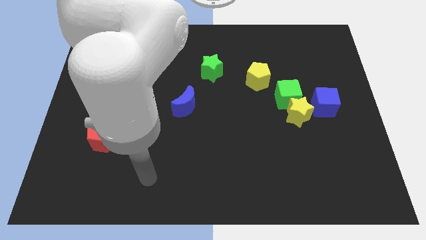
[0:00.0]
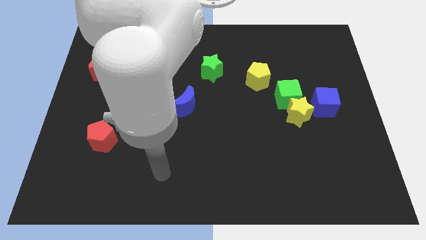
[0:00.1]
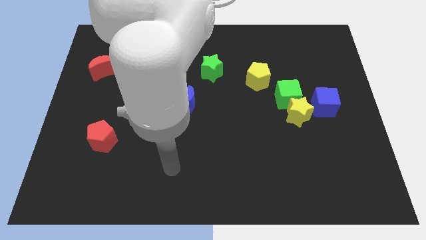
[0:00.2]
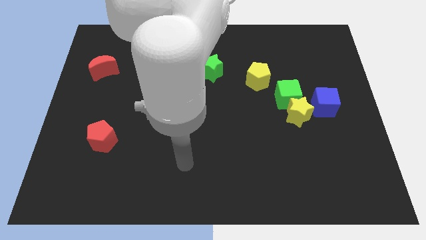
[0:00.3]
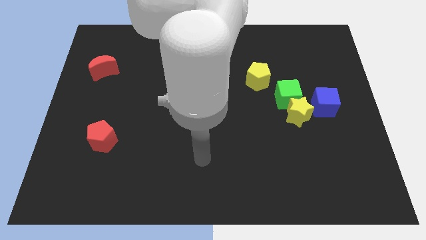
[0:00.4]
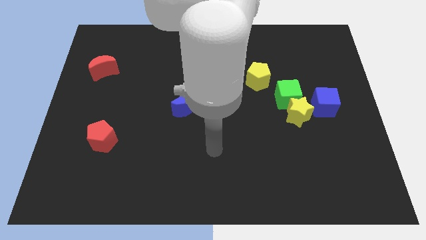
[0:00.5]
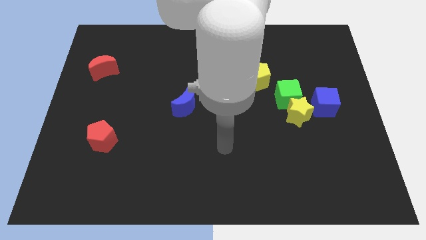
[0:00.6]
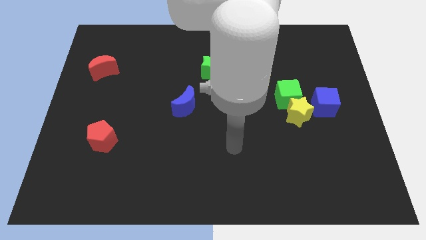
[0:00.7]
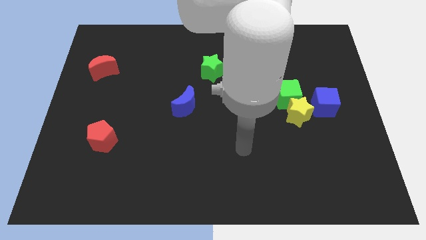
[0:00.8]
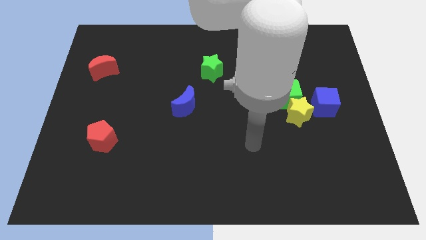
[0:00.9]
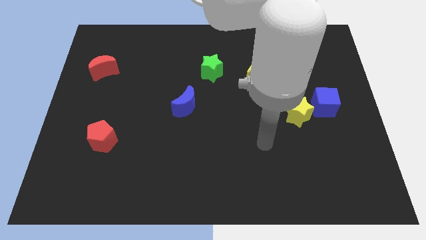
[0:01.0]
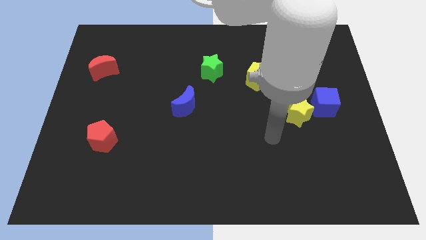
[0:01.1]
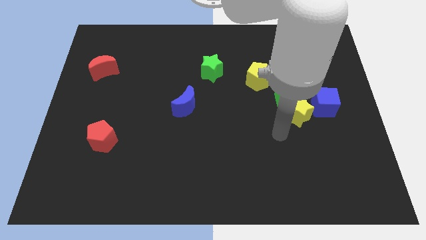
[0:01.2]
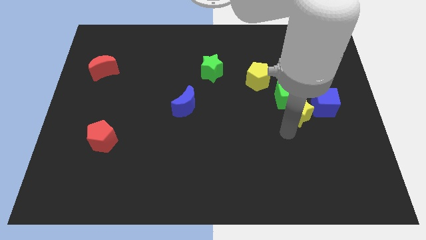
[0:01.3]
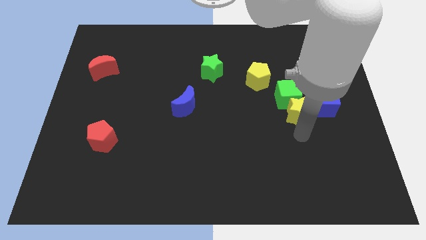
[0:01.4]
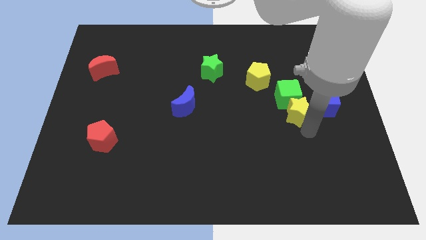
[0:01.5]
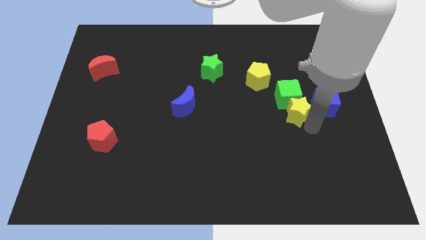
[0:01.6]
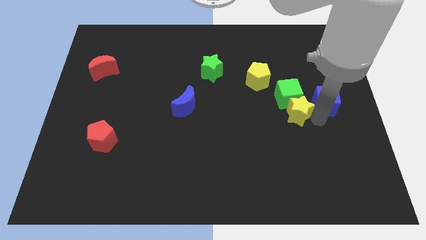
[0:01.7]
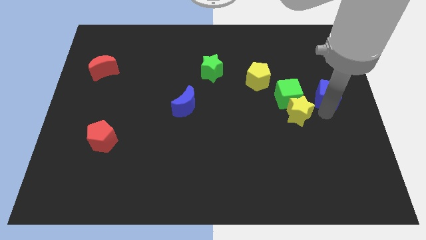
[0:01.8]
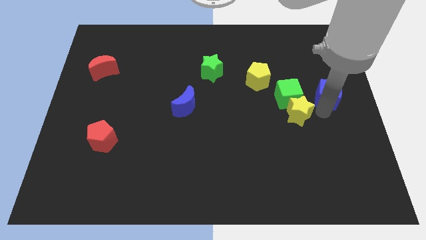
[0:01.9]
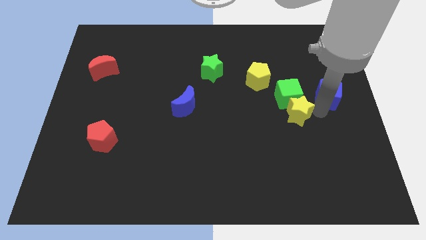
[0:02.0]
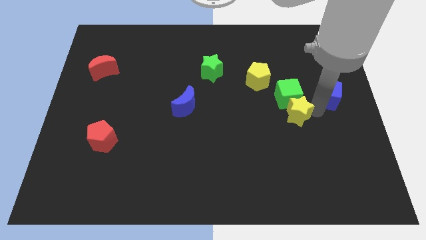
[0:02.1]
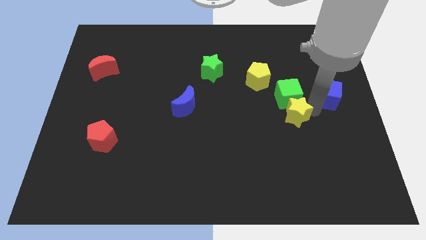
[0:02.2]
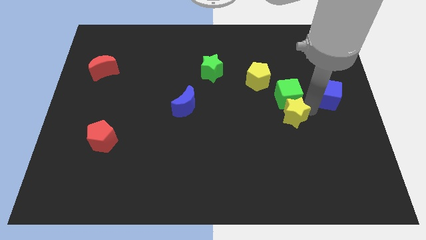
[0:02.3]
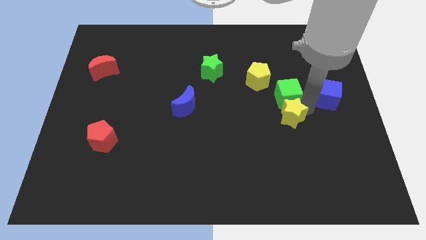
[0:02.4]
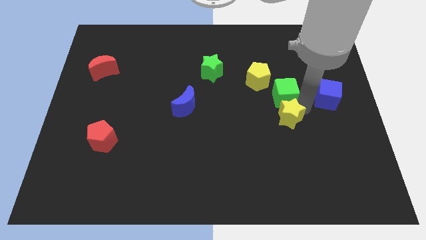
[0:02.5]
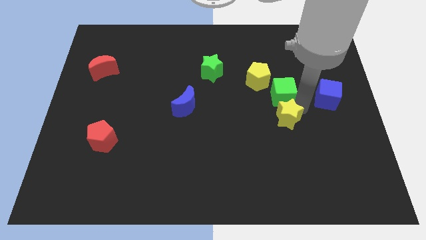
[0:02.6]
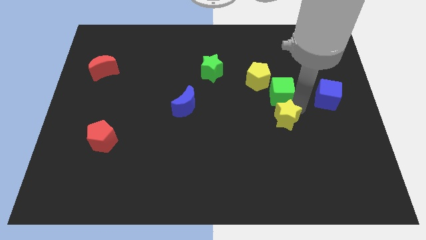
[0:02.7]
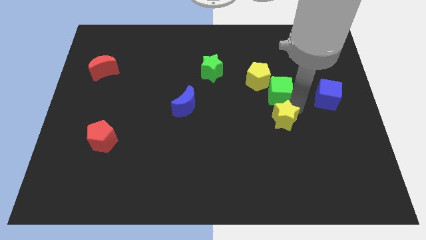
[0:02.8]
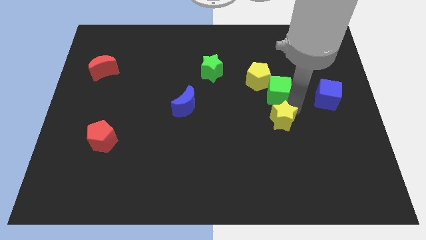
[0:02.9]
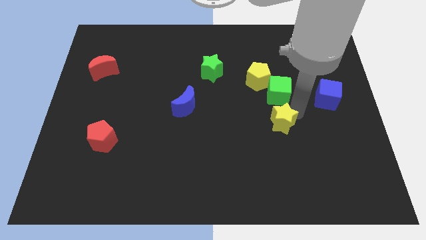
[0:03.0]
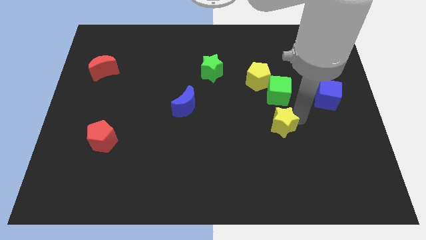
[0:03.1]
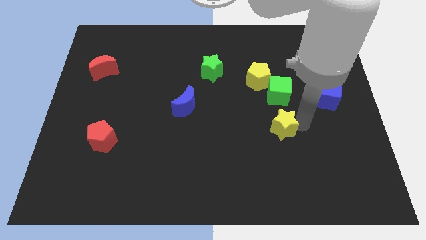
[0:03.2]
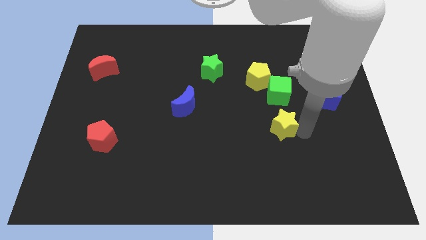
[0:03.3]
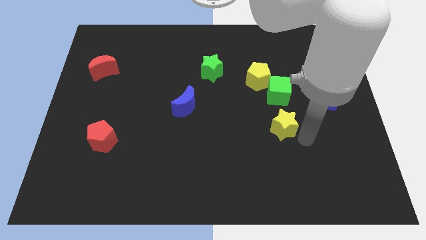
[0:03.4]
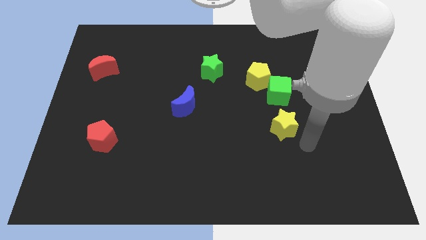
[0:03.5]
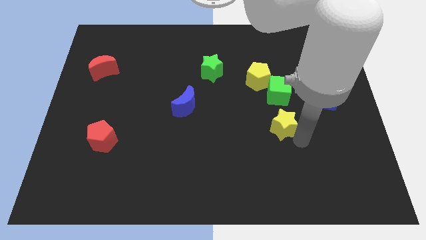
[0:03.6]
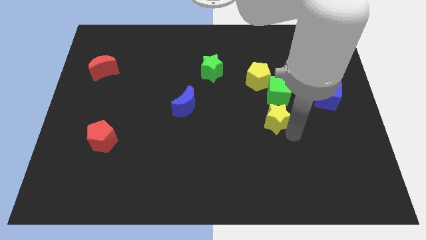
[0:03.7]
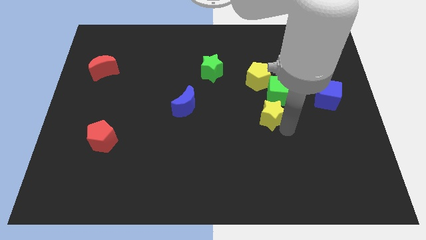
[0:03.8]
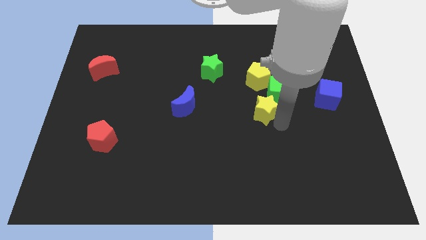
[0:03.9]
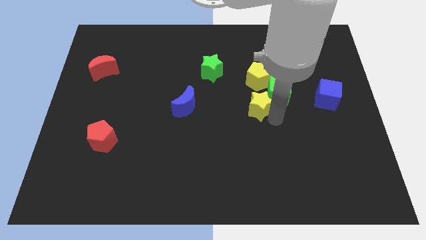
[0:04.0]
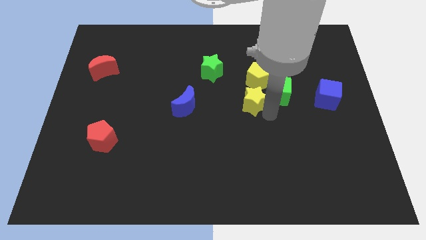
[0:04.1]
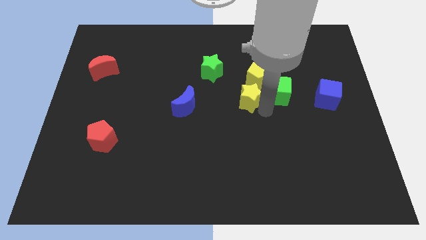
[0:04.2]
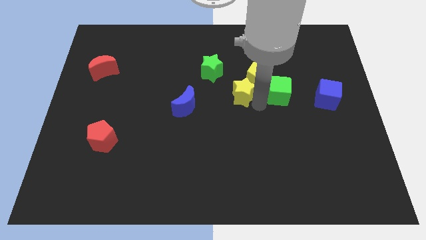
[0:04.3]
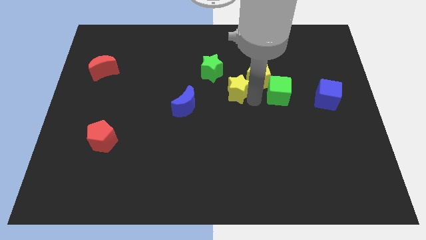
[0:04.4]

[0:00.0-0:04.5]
put the yellow star left of the yellow pentagon

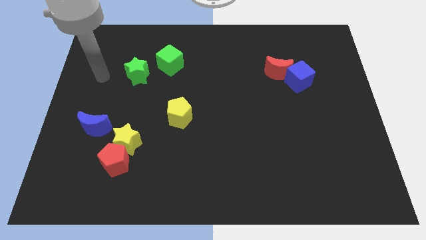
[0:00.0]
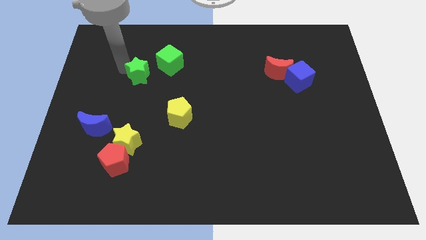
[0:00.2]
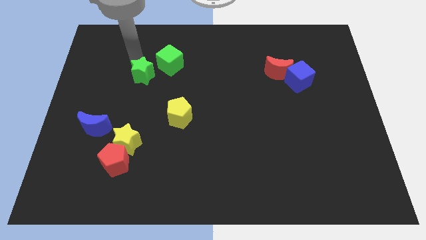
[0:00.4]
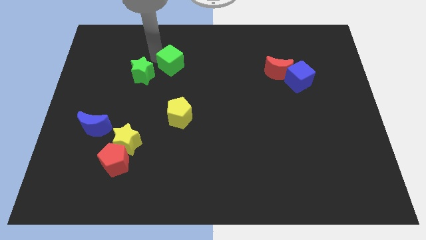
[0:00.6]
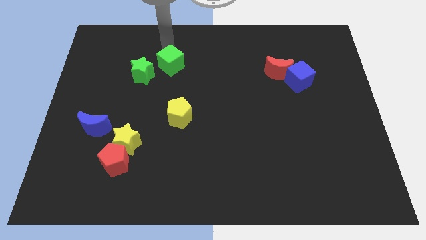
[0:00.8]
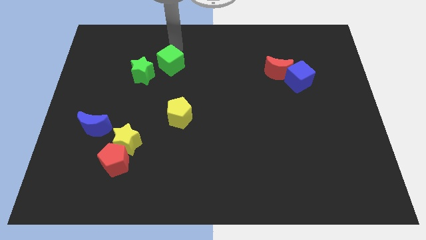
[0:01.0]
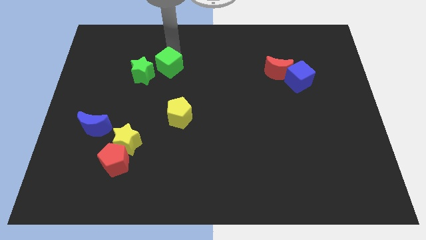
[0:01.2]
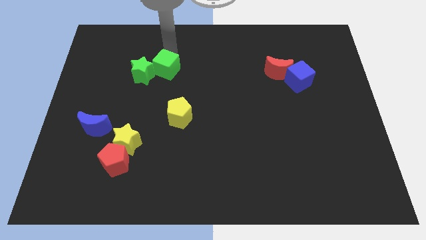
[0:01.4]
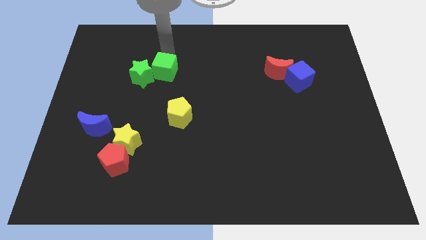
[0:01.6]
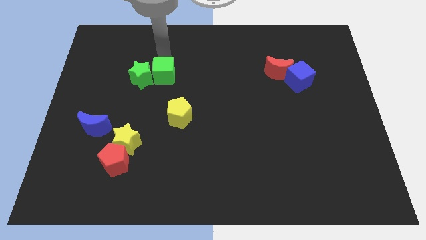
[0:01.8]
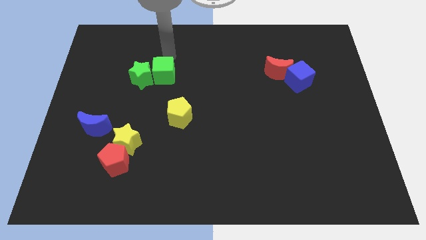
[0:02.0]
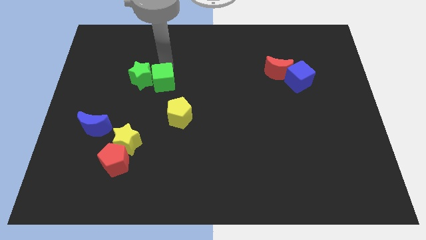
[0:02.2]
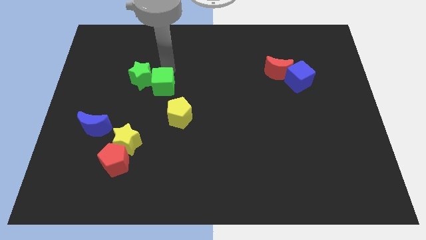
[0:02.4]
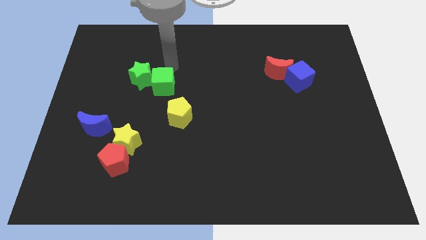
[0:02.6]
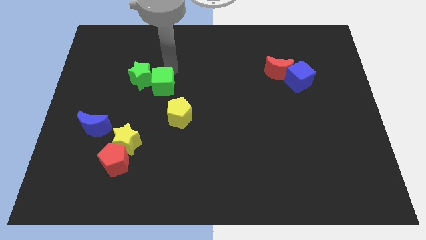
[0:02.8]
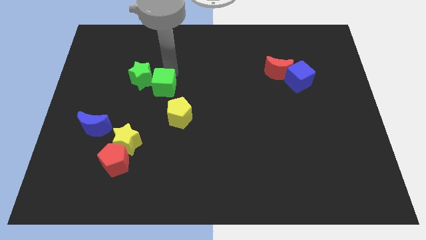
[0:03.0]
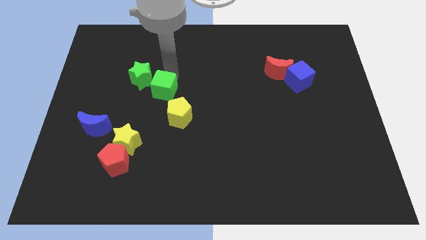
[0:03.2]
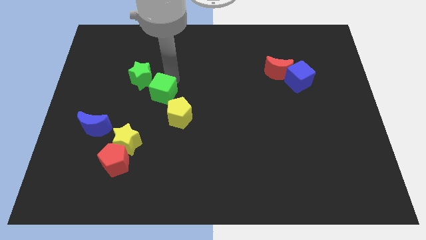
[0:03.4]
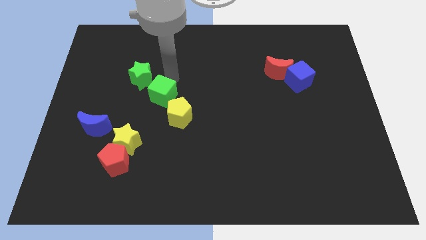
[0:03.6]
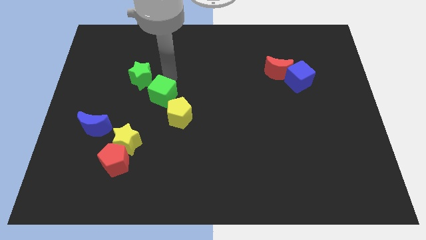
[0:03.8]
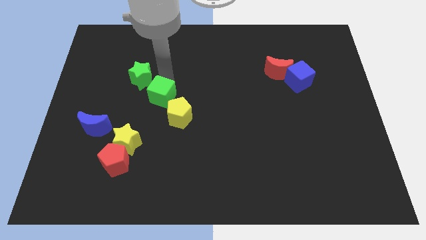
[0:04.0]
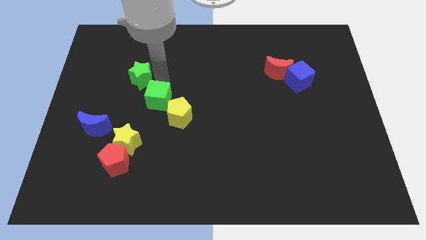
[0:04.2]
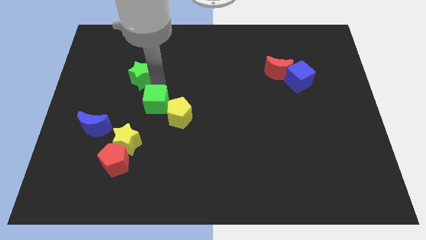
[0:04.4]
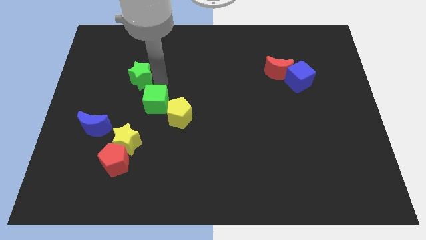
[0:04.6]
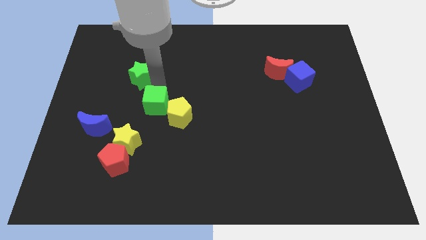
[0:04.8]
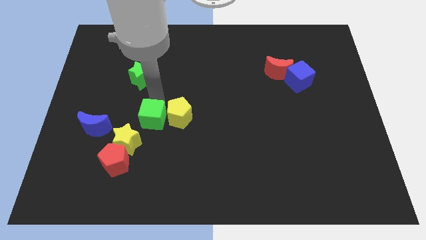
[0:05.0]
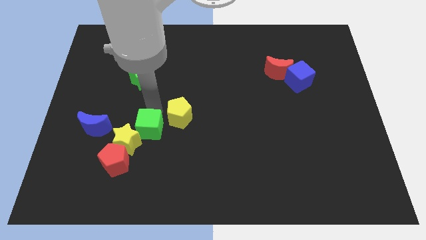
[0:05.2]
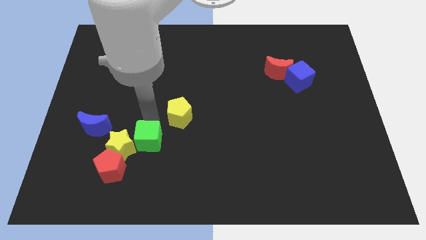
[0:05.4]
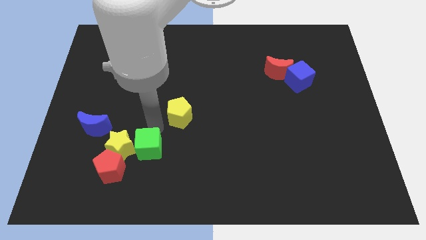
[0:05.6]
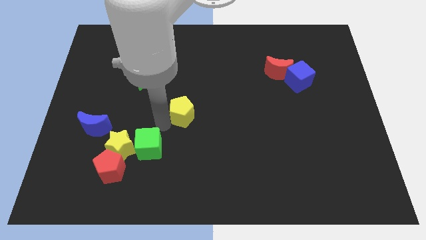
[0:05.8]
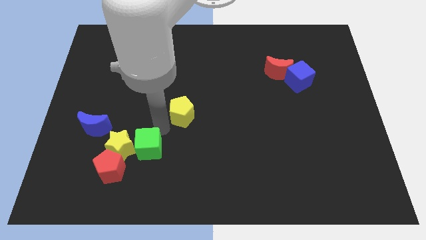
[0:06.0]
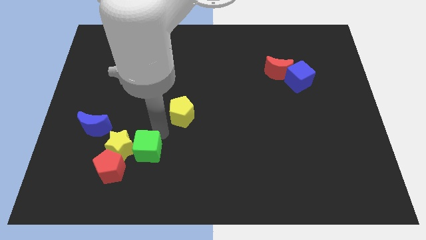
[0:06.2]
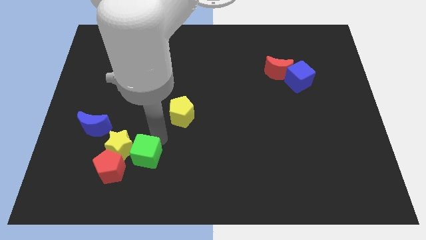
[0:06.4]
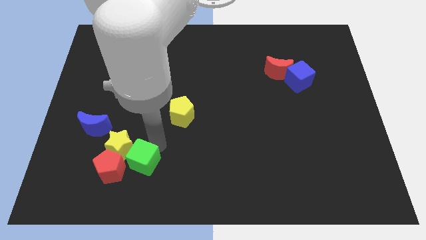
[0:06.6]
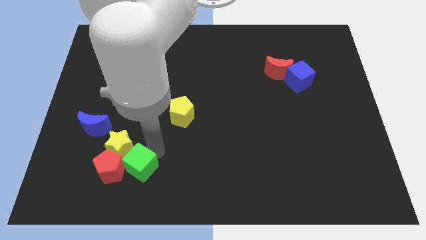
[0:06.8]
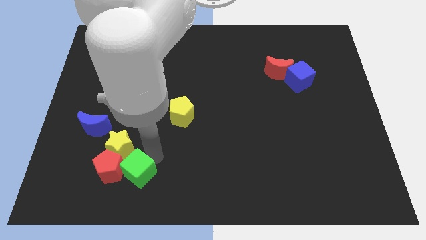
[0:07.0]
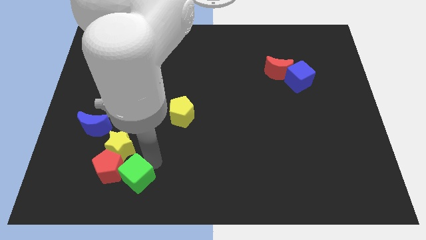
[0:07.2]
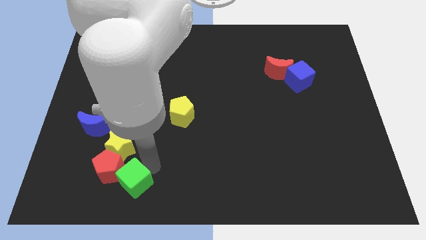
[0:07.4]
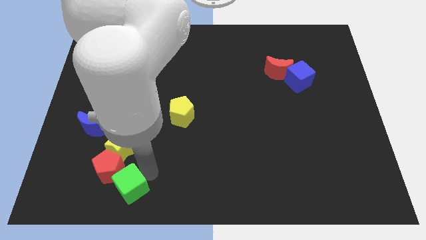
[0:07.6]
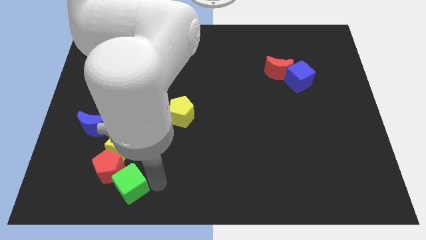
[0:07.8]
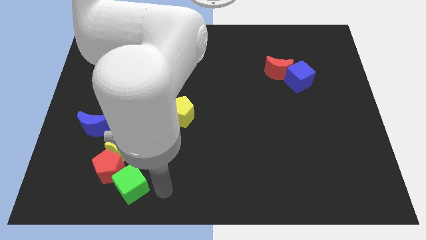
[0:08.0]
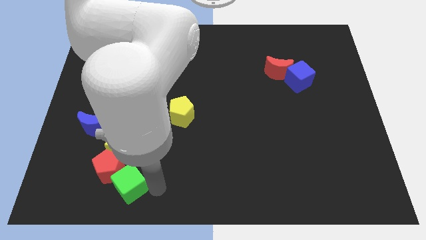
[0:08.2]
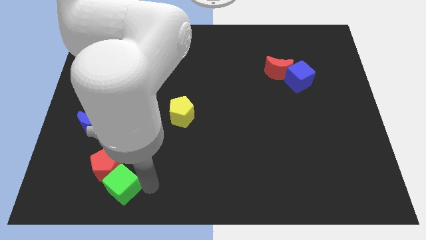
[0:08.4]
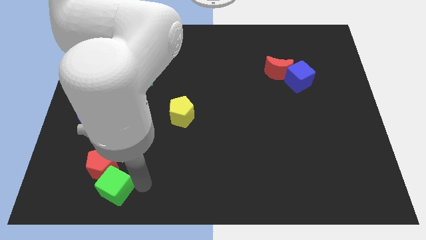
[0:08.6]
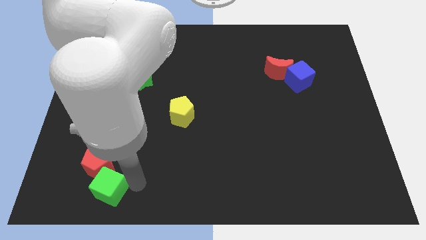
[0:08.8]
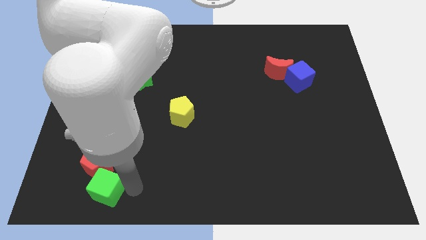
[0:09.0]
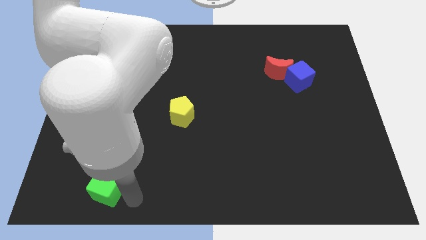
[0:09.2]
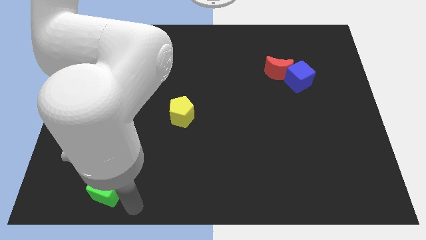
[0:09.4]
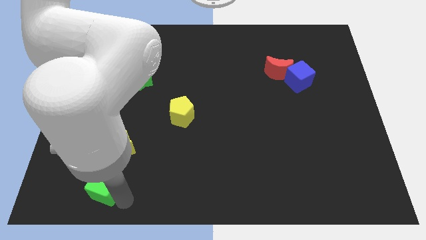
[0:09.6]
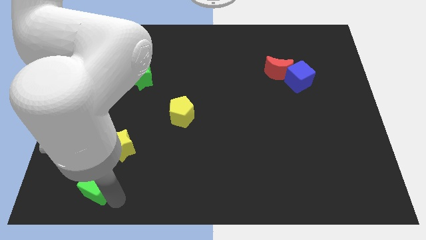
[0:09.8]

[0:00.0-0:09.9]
put the green cube to the bottom side of the blue moon
